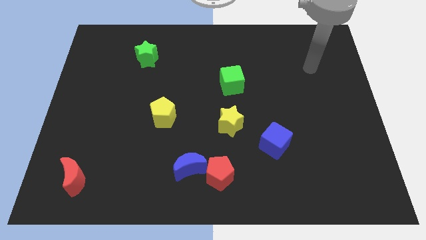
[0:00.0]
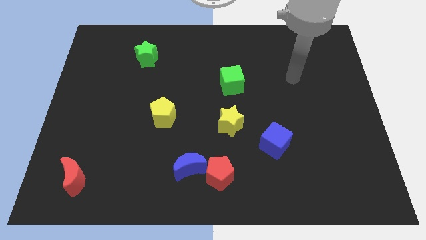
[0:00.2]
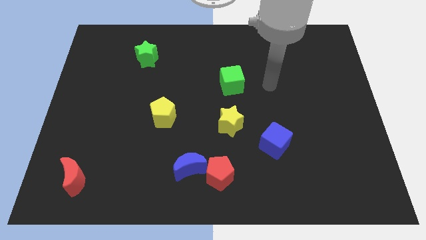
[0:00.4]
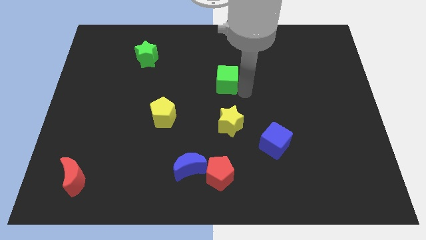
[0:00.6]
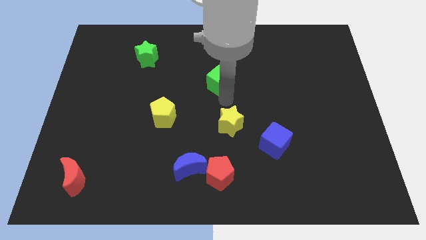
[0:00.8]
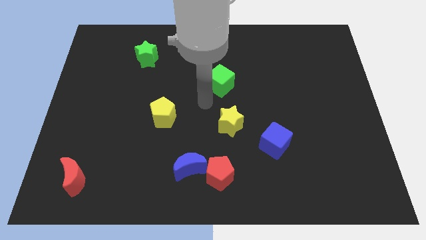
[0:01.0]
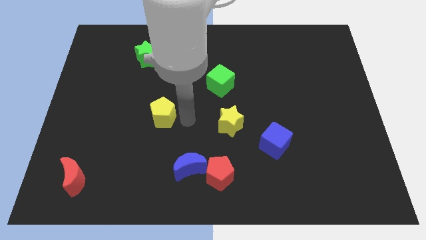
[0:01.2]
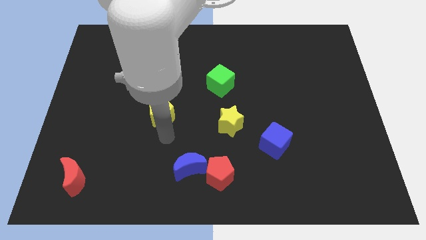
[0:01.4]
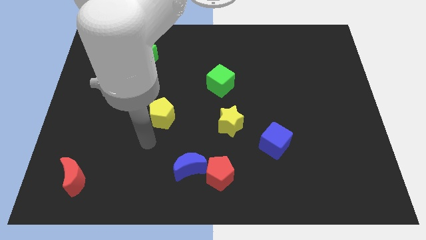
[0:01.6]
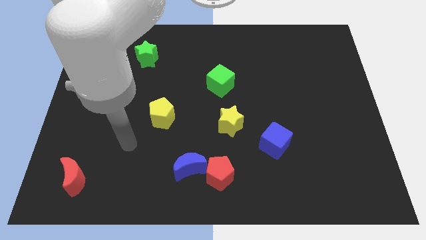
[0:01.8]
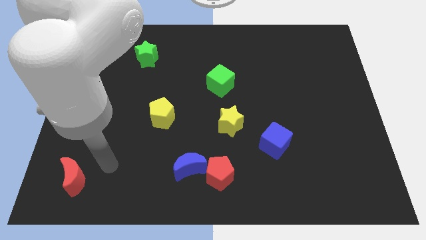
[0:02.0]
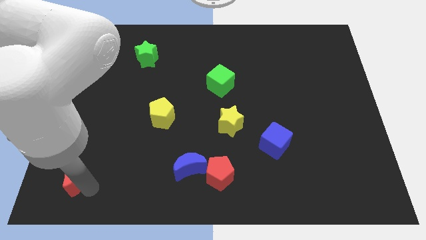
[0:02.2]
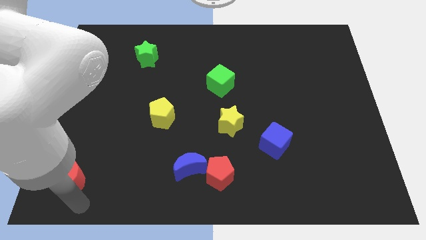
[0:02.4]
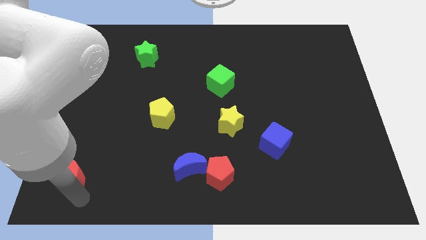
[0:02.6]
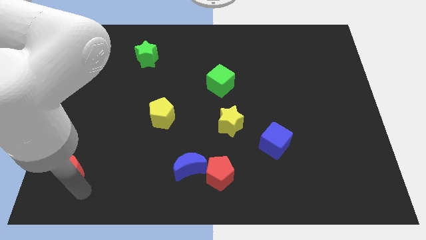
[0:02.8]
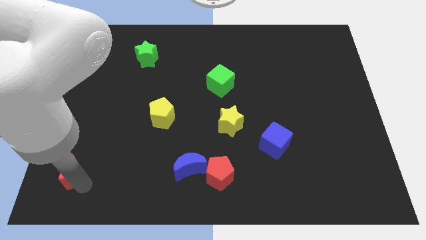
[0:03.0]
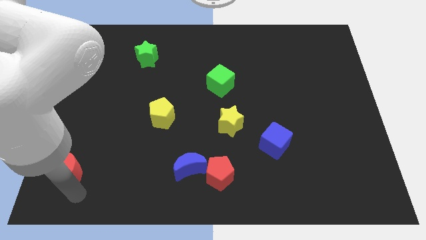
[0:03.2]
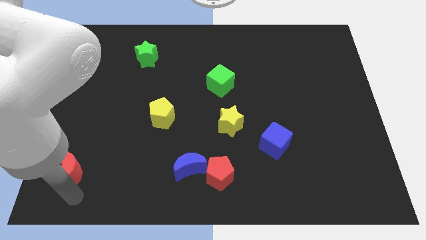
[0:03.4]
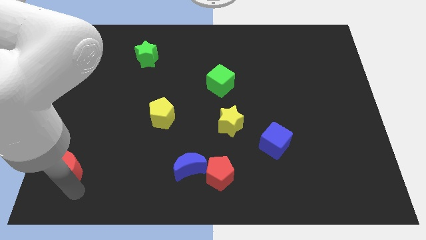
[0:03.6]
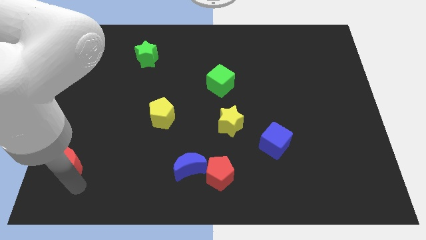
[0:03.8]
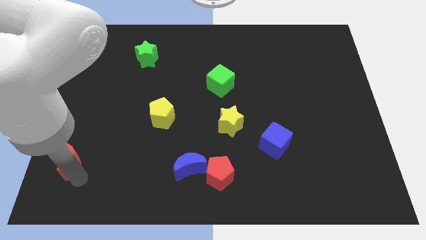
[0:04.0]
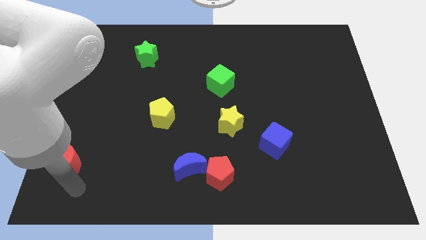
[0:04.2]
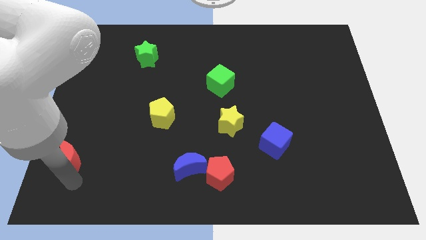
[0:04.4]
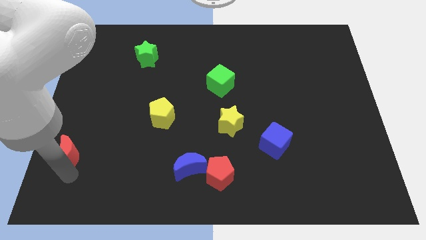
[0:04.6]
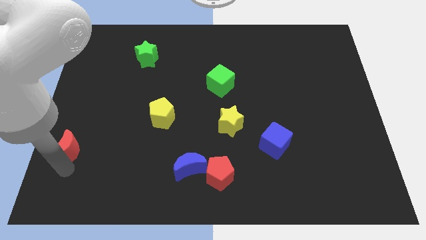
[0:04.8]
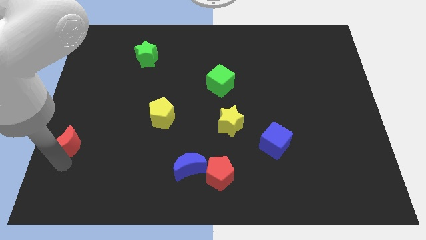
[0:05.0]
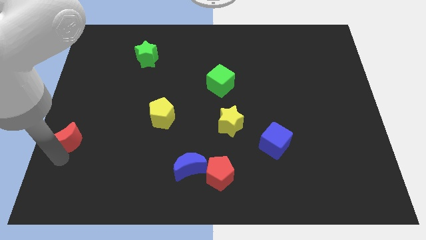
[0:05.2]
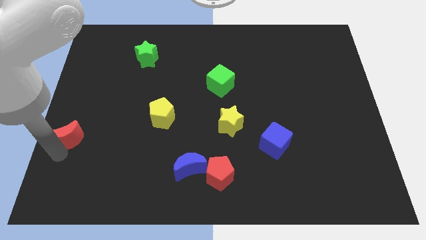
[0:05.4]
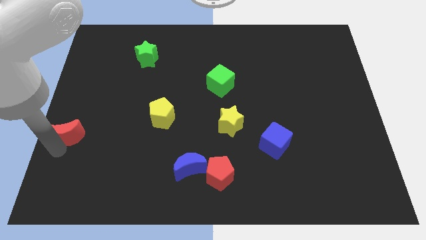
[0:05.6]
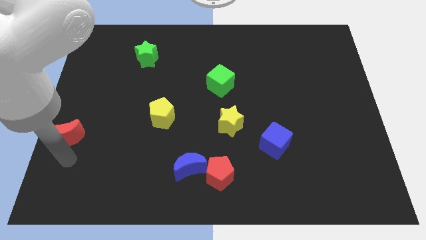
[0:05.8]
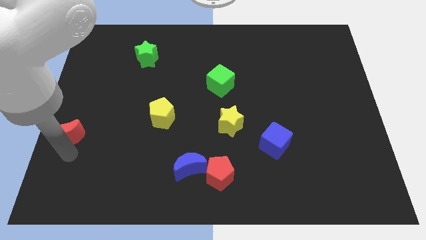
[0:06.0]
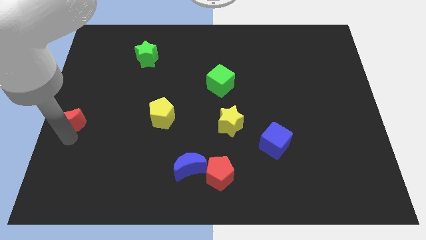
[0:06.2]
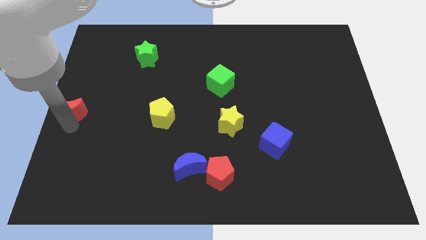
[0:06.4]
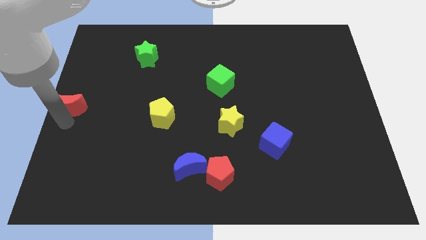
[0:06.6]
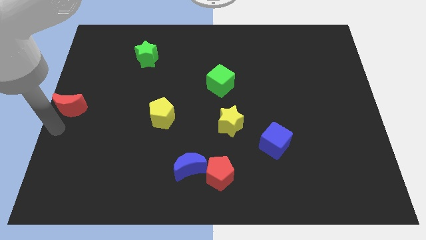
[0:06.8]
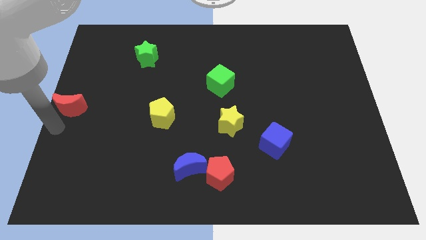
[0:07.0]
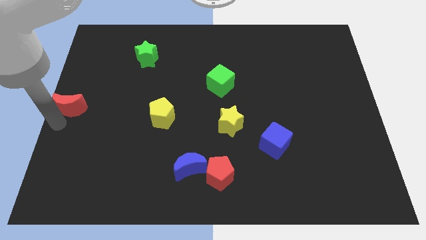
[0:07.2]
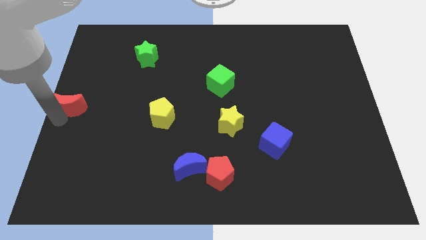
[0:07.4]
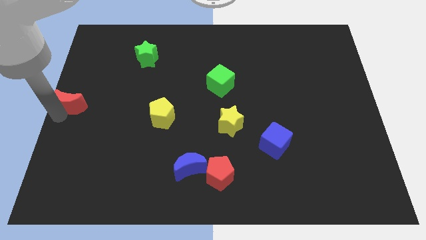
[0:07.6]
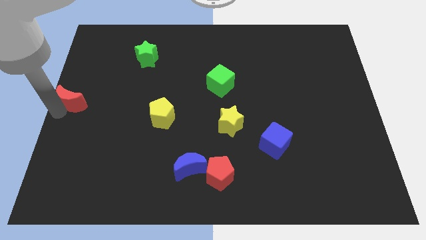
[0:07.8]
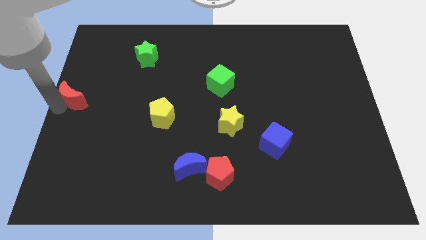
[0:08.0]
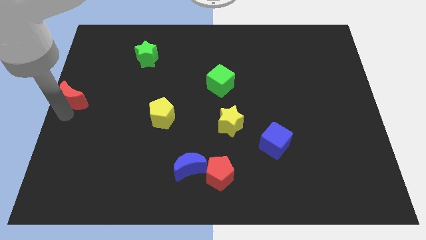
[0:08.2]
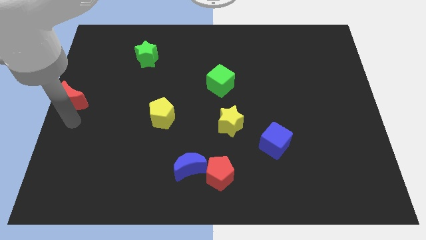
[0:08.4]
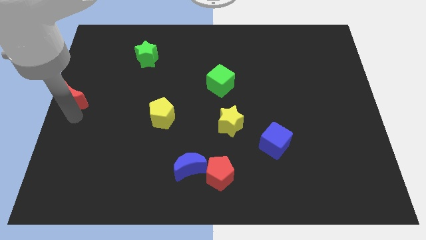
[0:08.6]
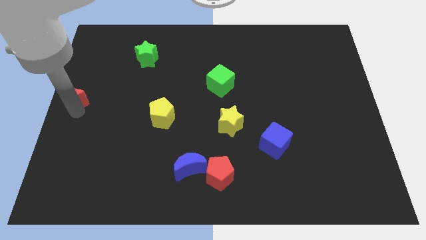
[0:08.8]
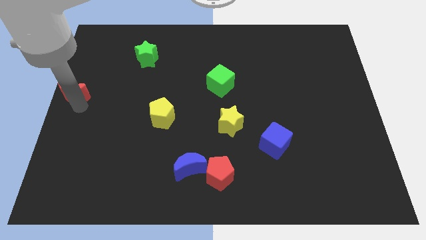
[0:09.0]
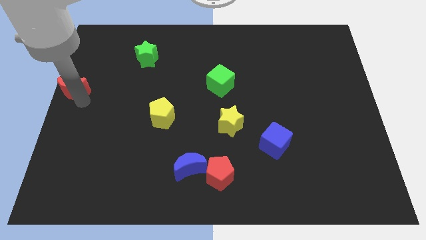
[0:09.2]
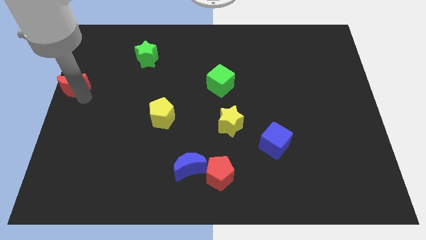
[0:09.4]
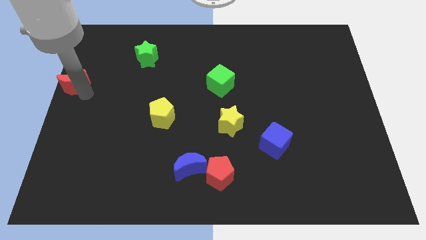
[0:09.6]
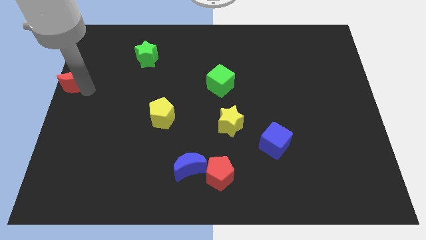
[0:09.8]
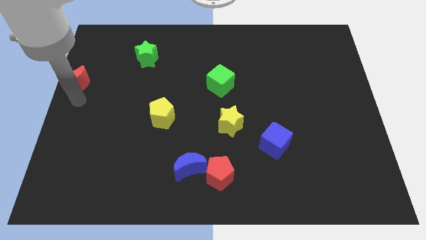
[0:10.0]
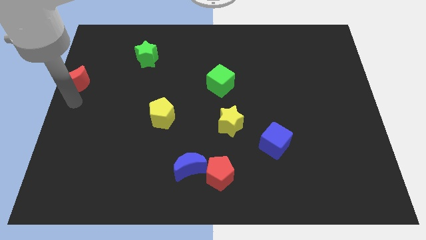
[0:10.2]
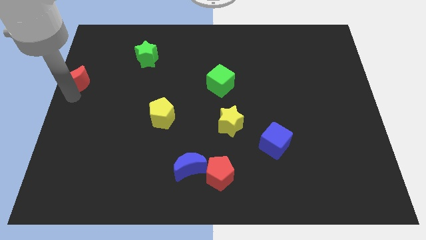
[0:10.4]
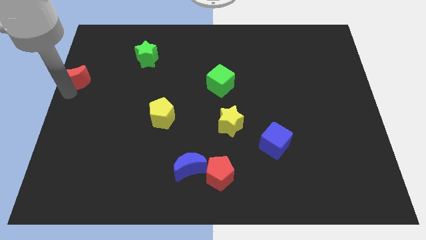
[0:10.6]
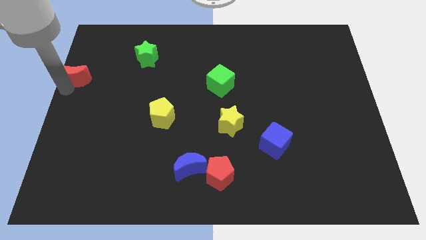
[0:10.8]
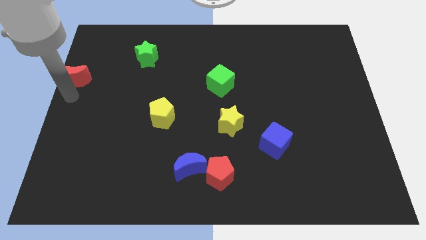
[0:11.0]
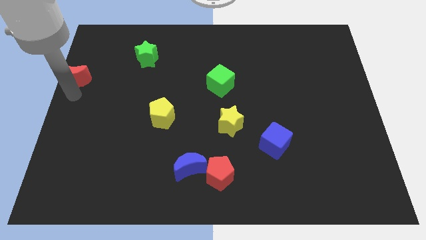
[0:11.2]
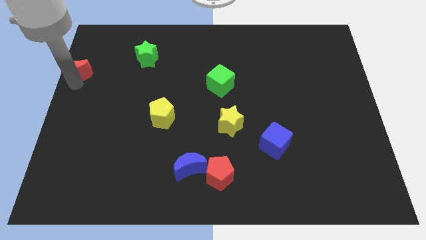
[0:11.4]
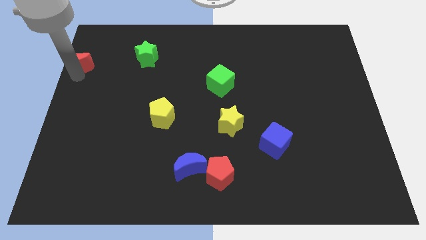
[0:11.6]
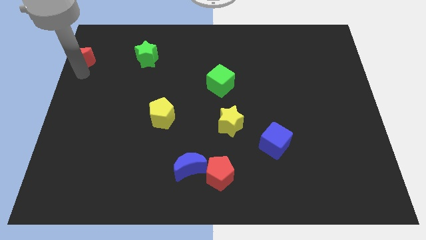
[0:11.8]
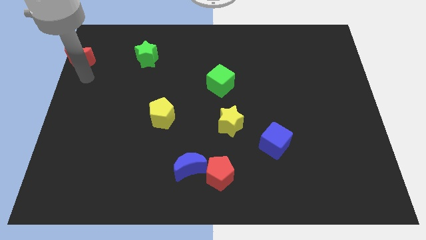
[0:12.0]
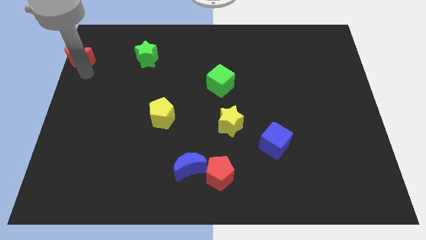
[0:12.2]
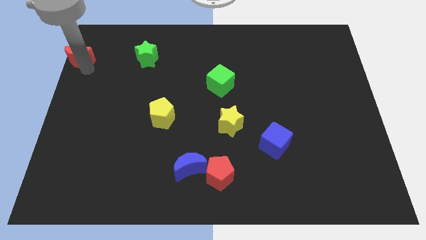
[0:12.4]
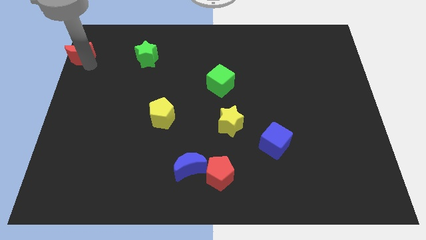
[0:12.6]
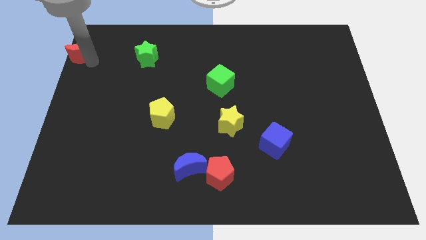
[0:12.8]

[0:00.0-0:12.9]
slide the red moon to the top left corner
